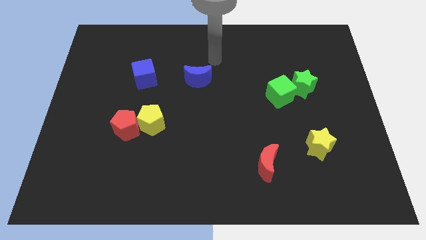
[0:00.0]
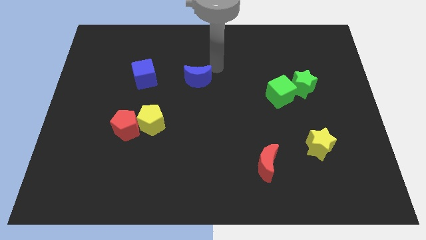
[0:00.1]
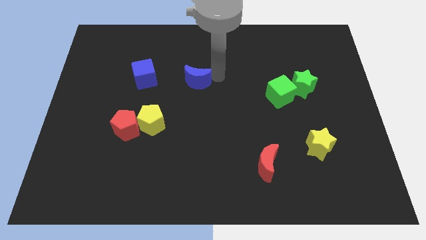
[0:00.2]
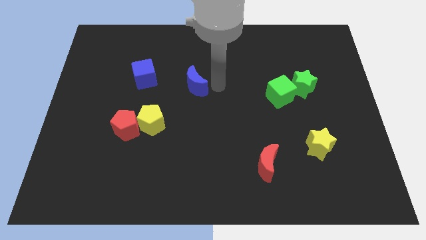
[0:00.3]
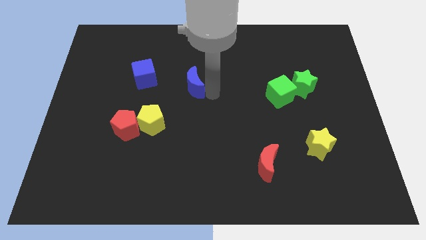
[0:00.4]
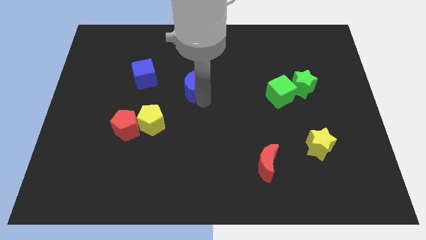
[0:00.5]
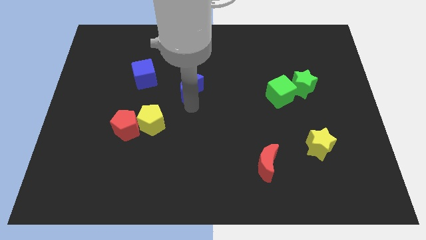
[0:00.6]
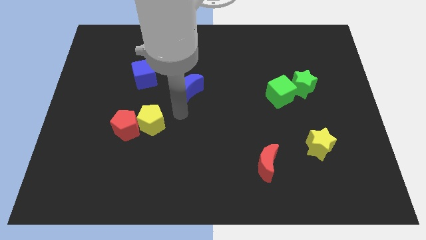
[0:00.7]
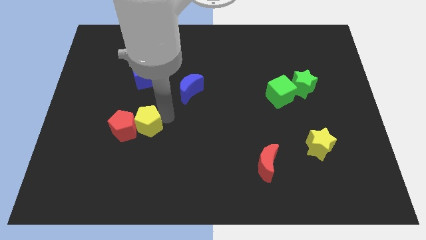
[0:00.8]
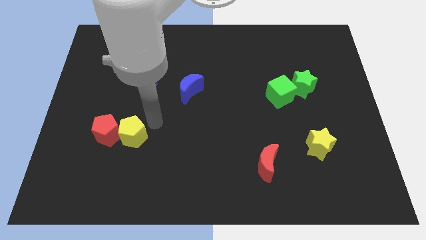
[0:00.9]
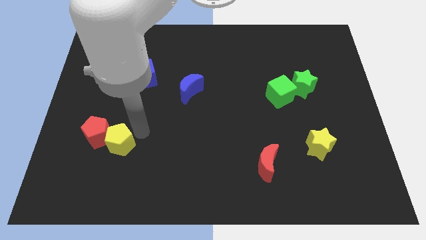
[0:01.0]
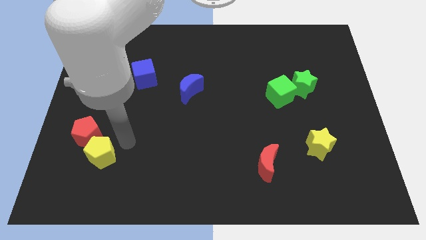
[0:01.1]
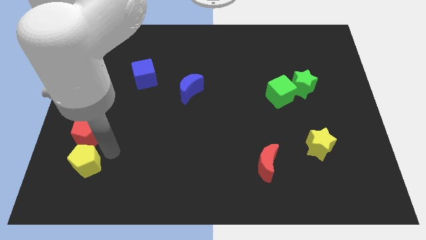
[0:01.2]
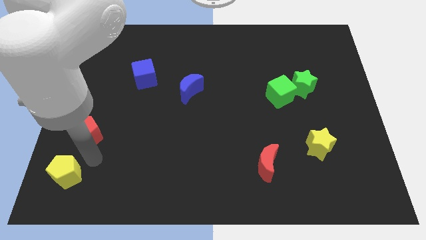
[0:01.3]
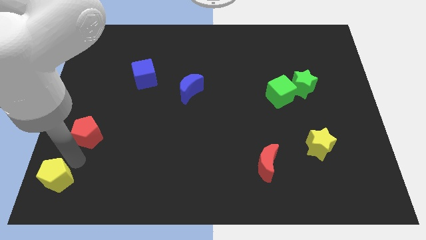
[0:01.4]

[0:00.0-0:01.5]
move the red pentagon away from the yellow pentagon

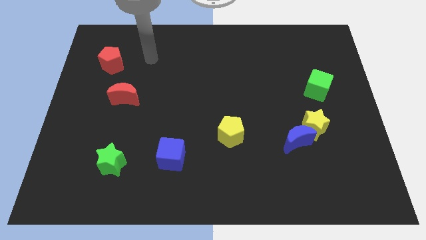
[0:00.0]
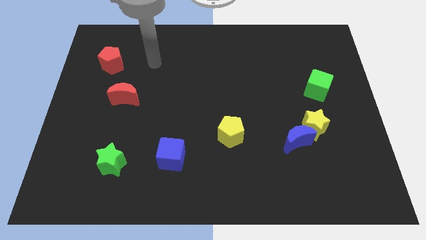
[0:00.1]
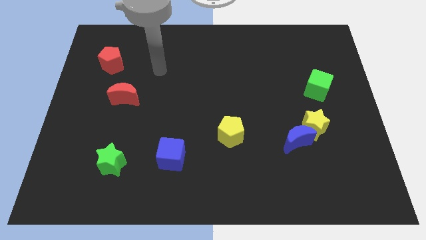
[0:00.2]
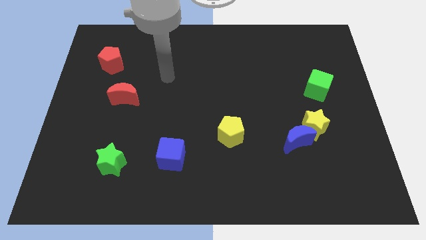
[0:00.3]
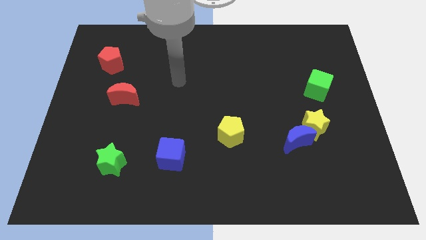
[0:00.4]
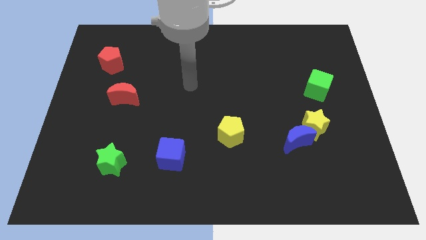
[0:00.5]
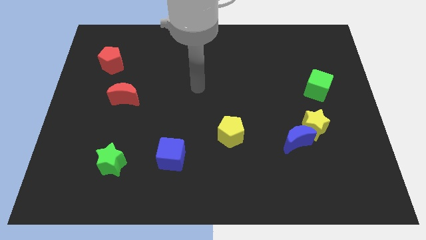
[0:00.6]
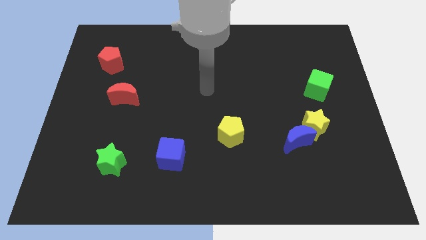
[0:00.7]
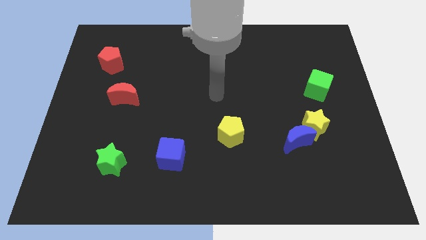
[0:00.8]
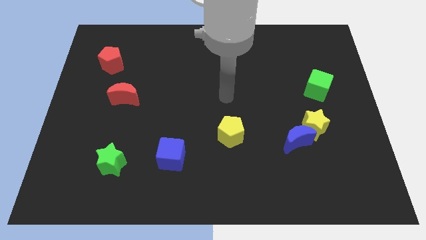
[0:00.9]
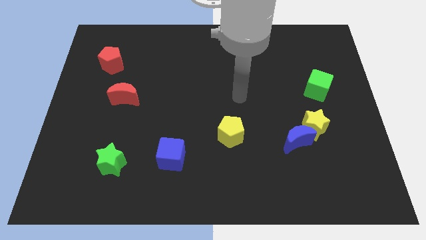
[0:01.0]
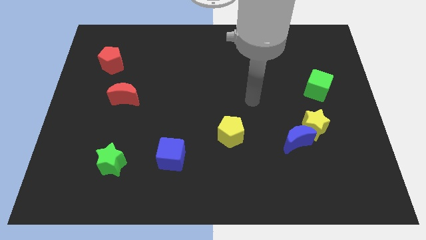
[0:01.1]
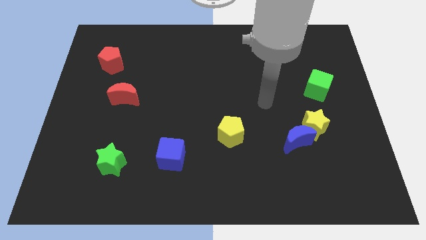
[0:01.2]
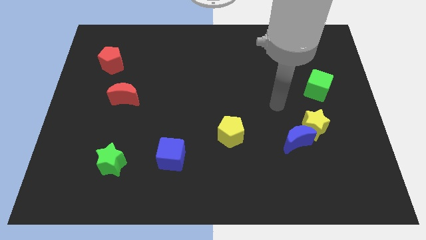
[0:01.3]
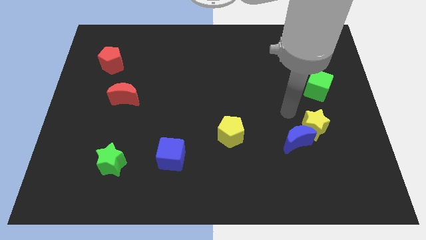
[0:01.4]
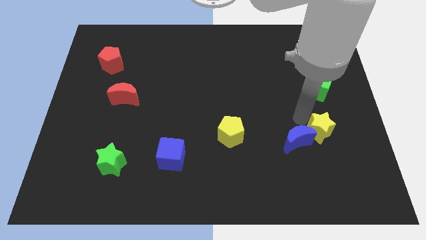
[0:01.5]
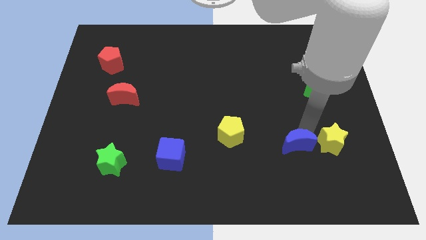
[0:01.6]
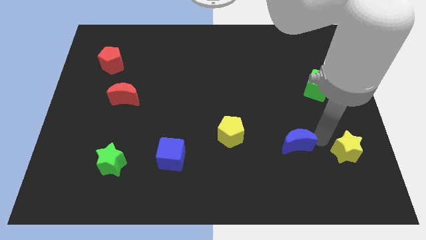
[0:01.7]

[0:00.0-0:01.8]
pull the blue moon apart from the yellow star

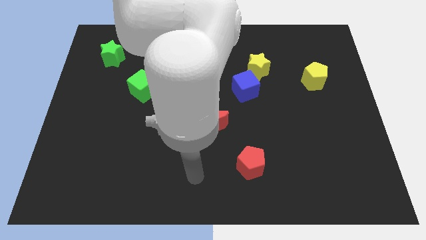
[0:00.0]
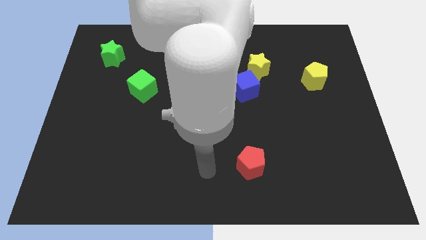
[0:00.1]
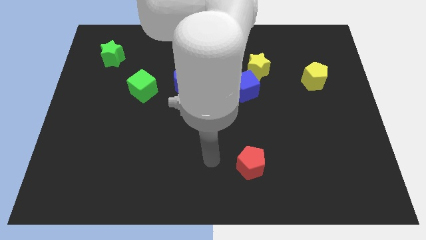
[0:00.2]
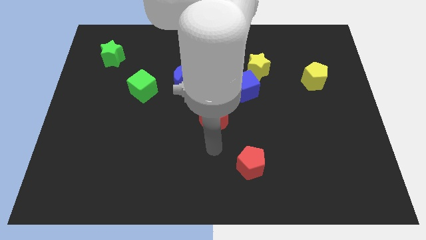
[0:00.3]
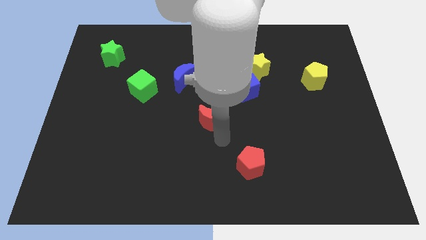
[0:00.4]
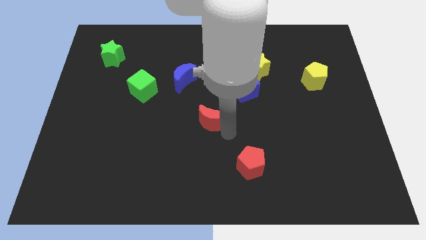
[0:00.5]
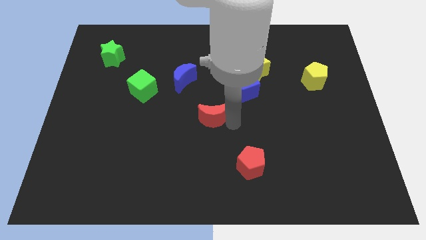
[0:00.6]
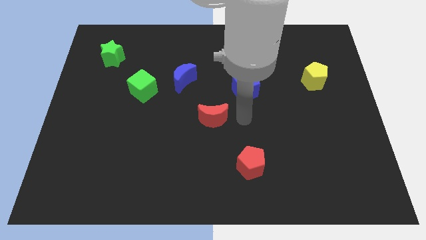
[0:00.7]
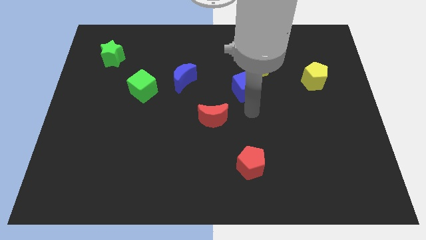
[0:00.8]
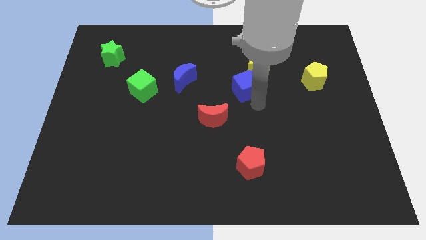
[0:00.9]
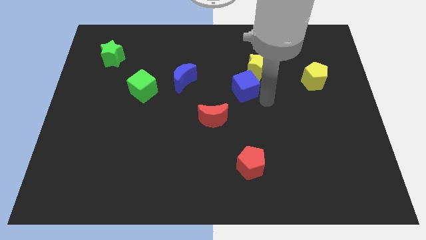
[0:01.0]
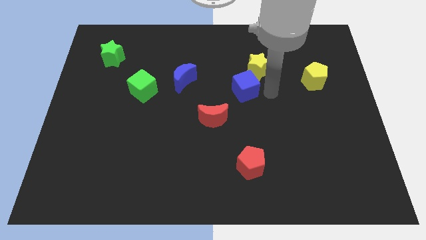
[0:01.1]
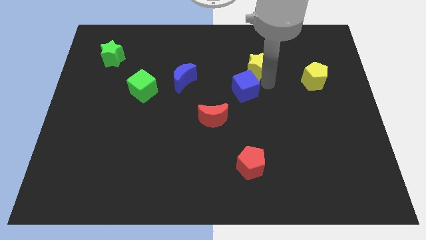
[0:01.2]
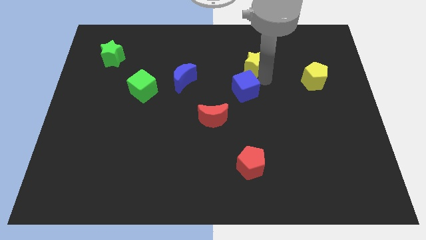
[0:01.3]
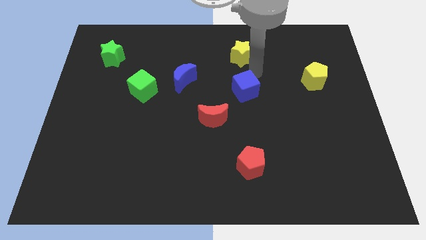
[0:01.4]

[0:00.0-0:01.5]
move the blue cube away from the yellow star

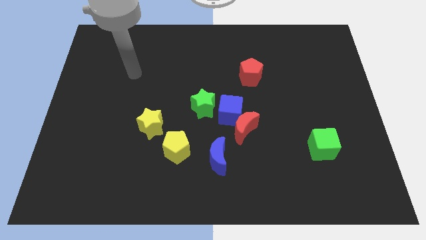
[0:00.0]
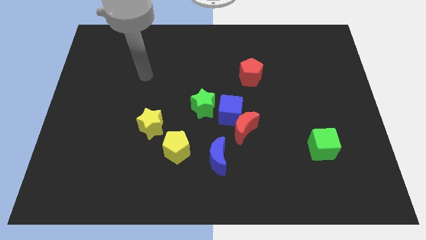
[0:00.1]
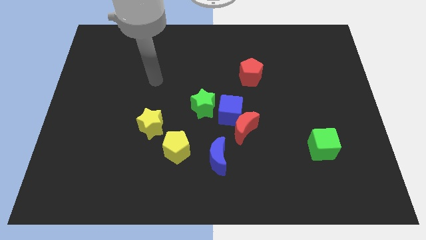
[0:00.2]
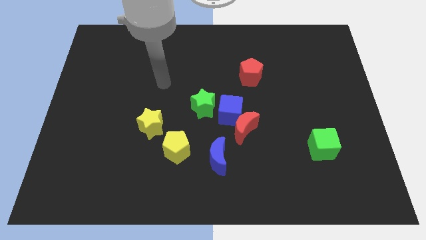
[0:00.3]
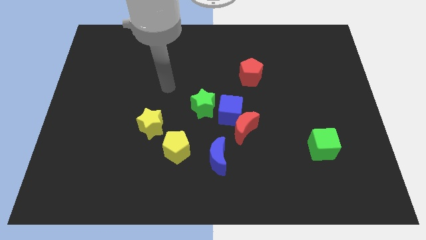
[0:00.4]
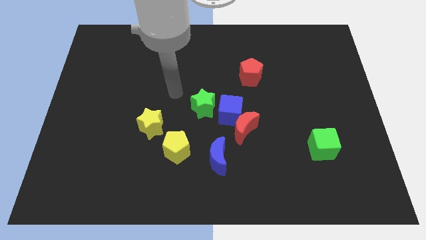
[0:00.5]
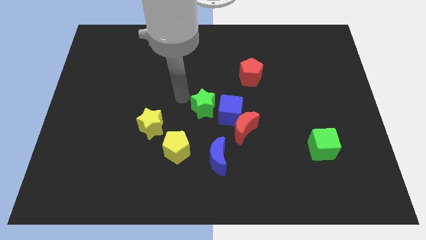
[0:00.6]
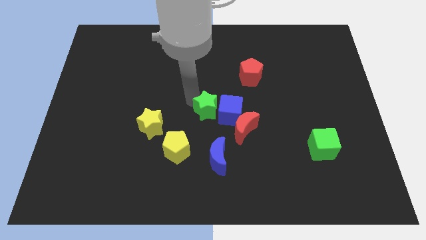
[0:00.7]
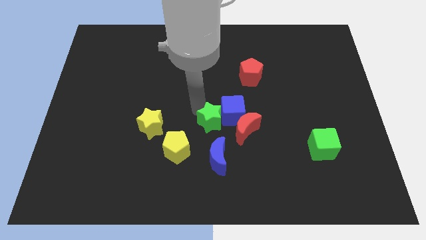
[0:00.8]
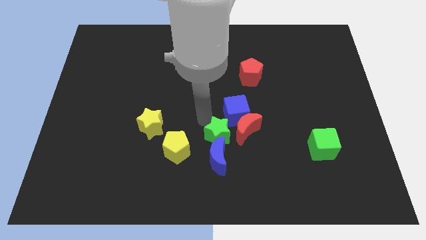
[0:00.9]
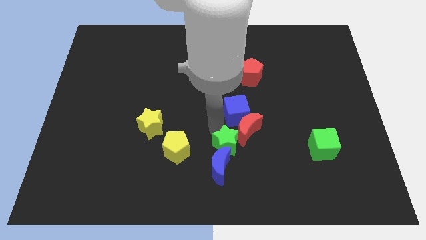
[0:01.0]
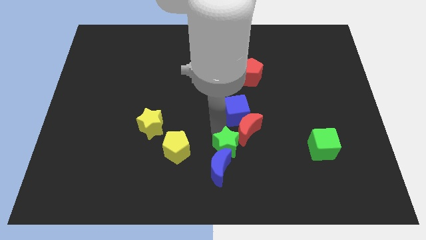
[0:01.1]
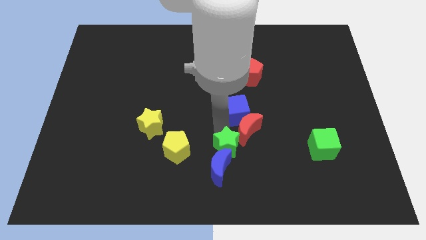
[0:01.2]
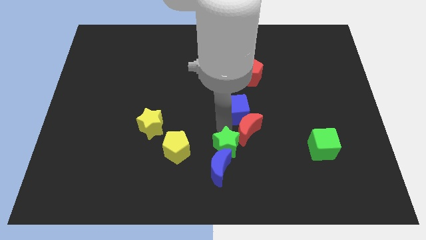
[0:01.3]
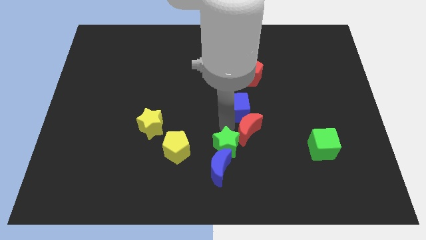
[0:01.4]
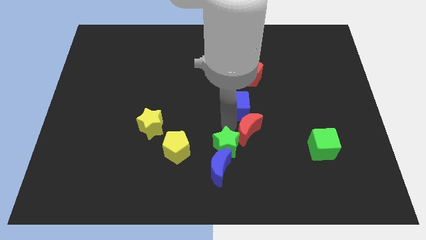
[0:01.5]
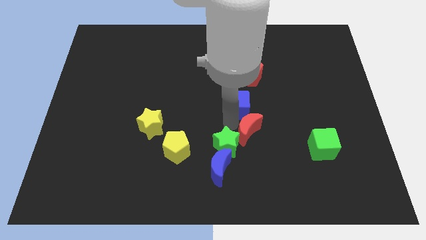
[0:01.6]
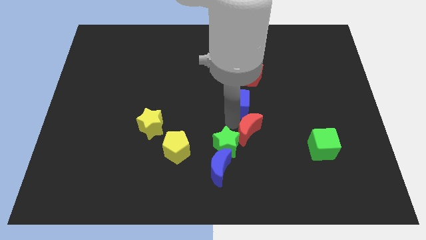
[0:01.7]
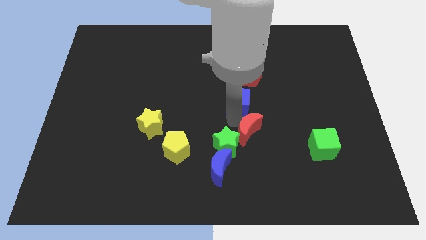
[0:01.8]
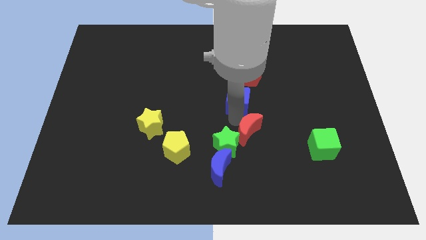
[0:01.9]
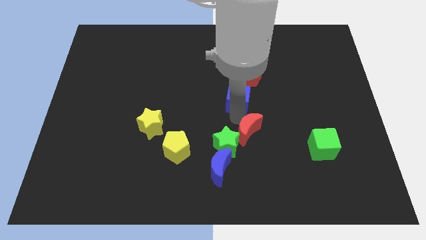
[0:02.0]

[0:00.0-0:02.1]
pull the blue cube apart from the red moon and green star

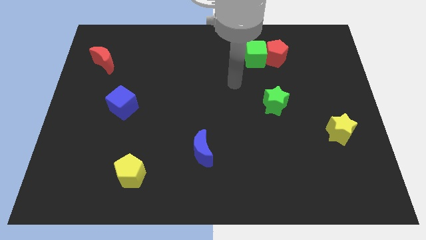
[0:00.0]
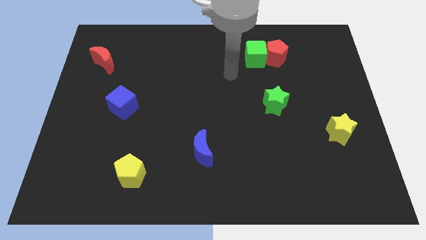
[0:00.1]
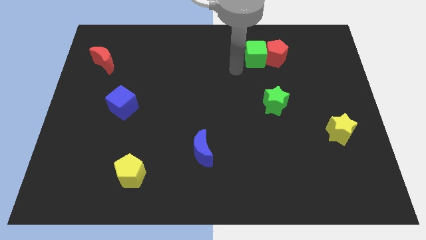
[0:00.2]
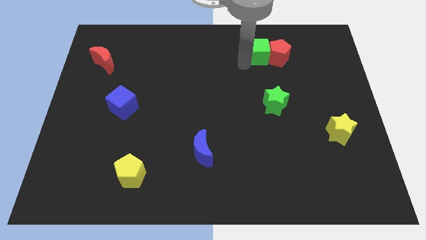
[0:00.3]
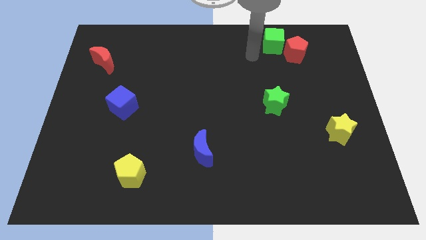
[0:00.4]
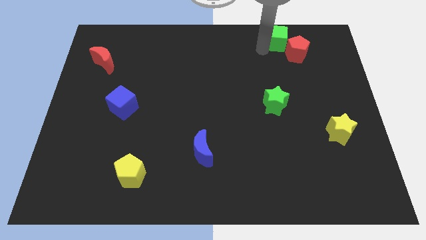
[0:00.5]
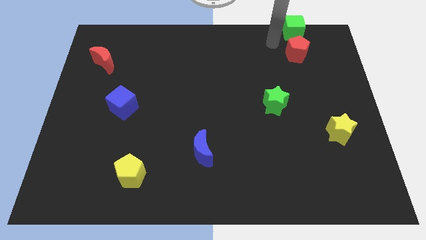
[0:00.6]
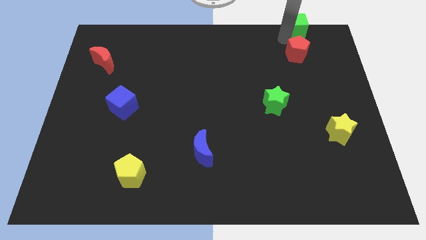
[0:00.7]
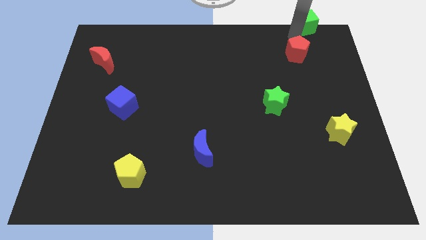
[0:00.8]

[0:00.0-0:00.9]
move the red pentagon away from the green cube

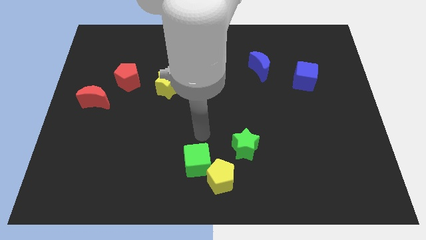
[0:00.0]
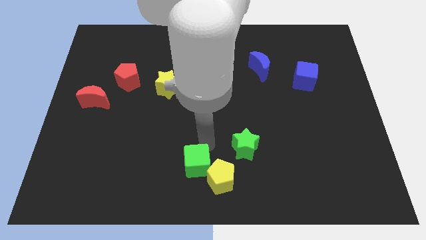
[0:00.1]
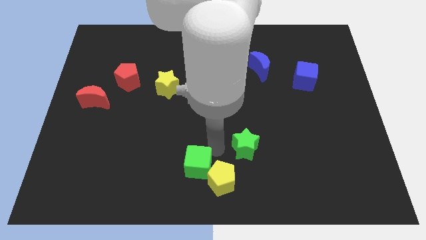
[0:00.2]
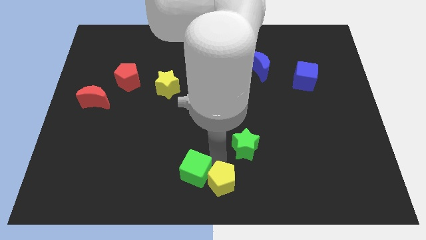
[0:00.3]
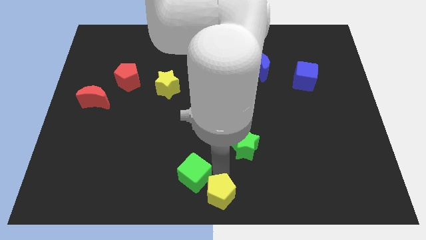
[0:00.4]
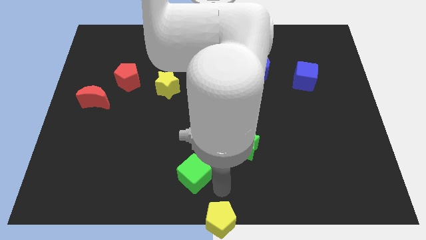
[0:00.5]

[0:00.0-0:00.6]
move the green cube away from the yellow pentagon

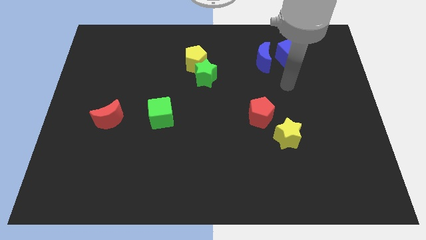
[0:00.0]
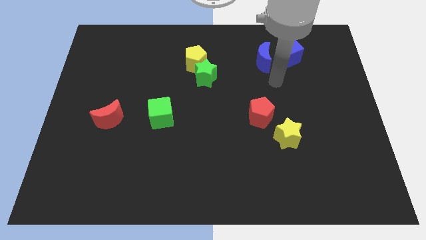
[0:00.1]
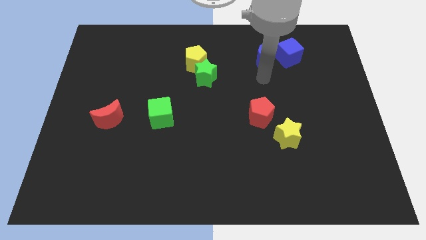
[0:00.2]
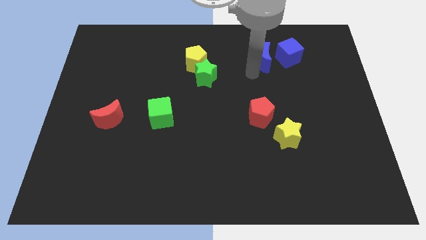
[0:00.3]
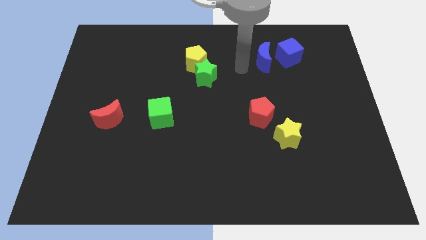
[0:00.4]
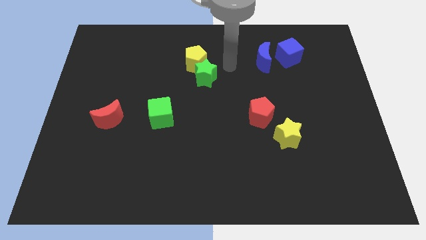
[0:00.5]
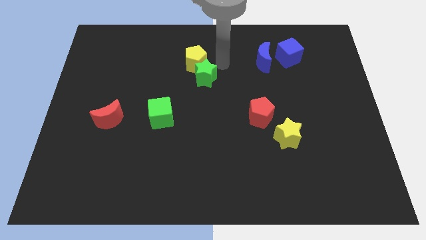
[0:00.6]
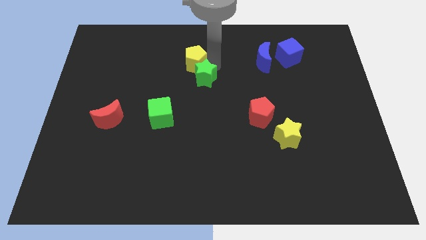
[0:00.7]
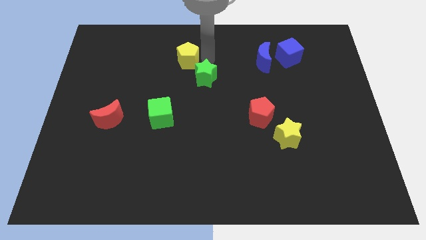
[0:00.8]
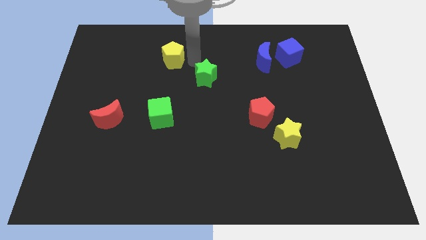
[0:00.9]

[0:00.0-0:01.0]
pull the green star apart from the yellow pentagon
